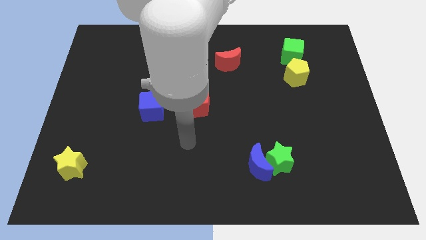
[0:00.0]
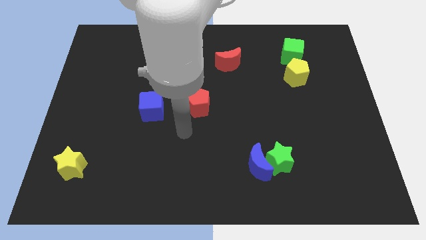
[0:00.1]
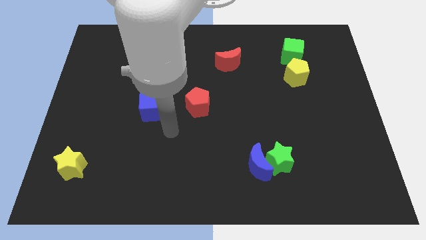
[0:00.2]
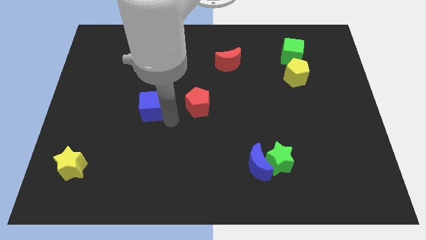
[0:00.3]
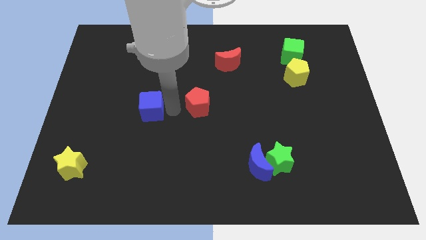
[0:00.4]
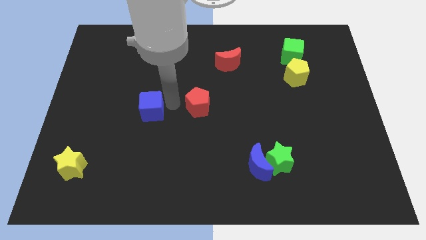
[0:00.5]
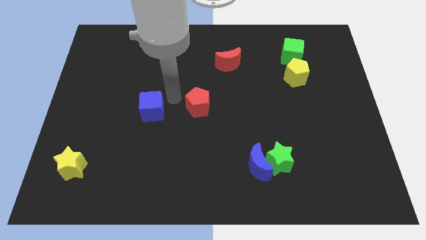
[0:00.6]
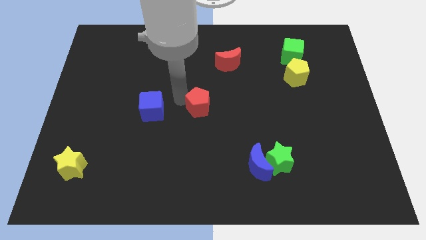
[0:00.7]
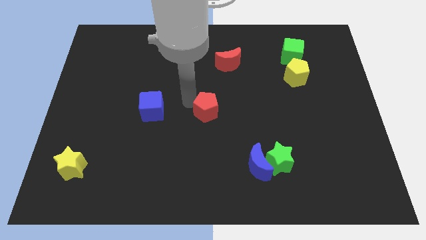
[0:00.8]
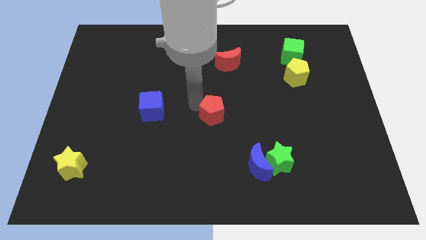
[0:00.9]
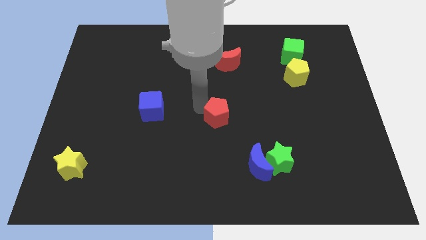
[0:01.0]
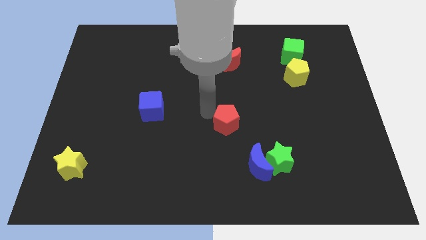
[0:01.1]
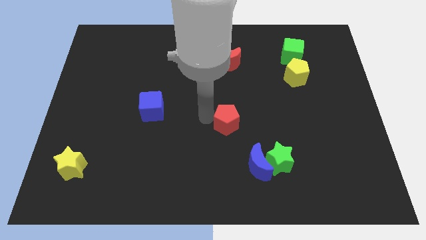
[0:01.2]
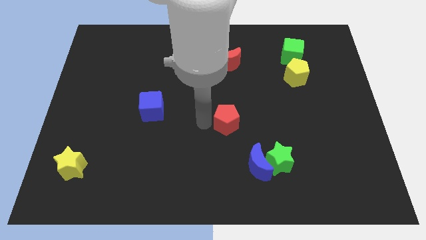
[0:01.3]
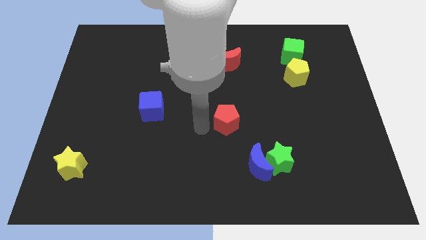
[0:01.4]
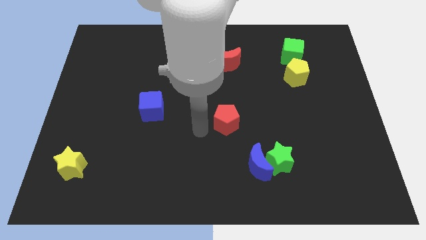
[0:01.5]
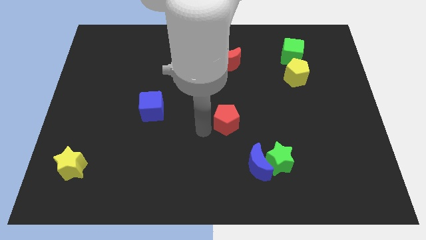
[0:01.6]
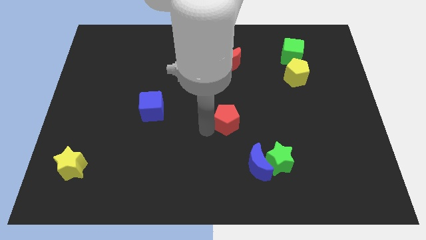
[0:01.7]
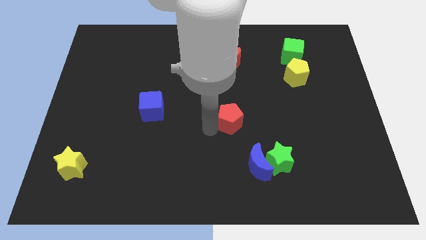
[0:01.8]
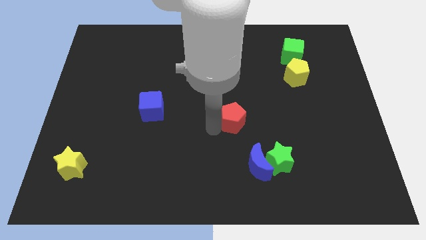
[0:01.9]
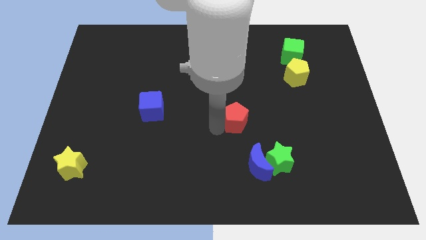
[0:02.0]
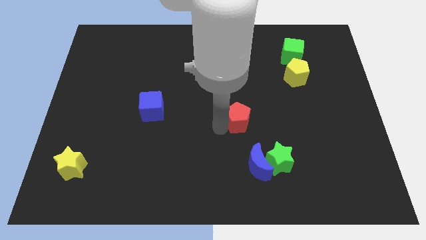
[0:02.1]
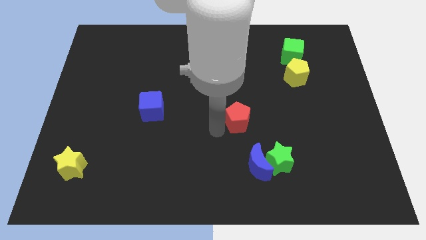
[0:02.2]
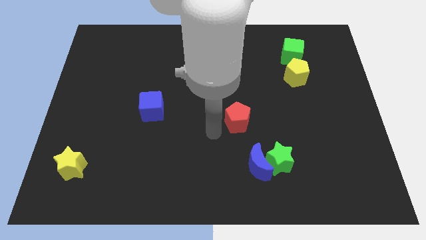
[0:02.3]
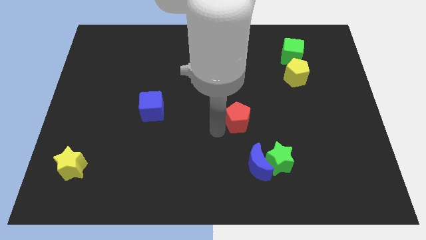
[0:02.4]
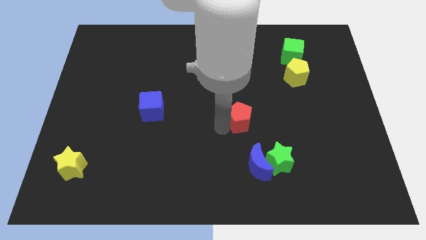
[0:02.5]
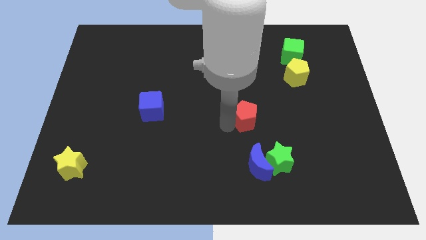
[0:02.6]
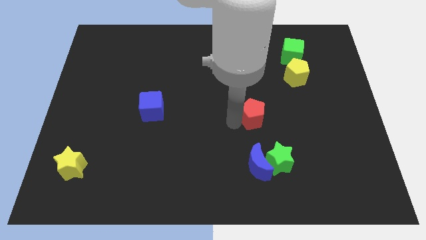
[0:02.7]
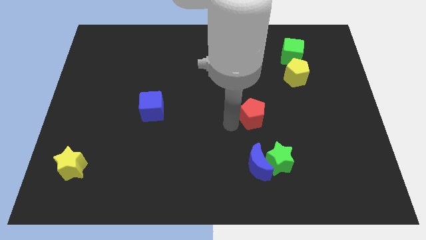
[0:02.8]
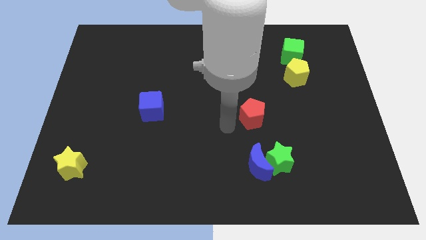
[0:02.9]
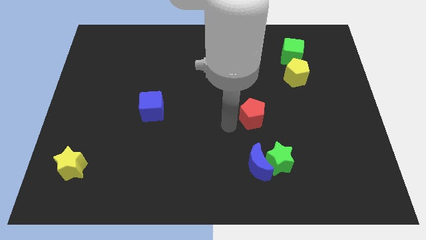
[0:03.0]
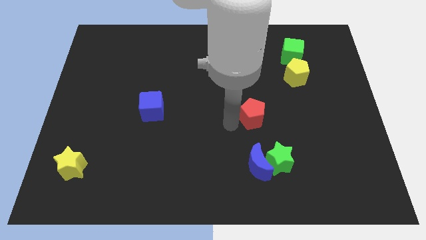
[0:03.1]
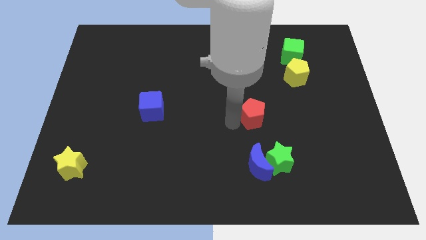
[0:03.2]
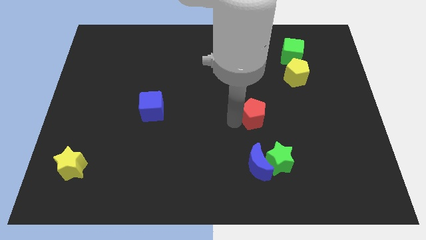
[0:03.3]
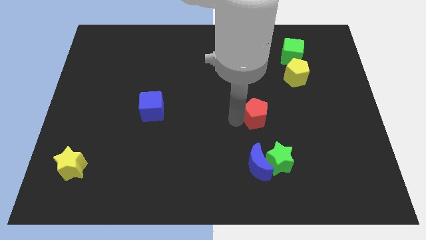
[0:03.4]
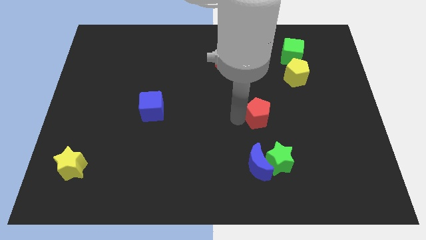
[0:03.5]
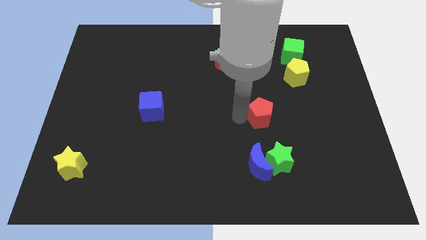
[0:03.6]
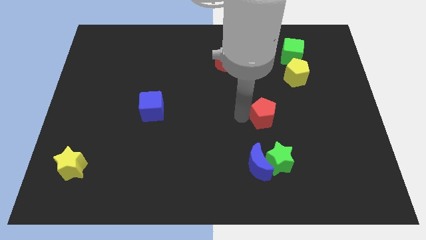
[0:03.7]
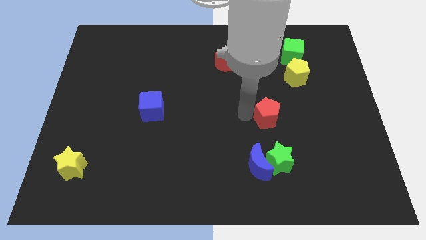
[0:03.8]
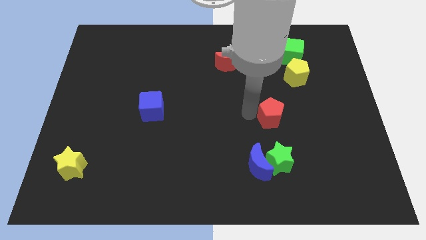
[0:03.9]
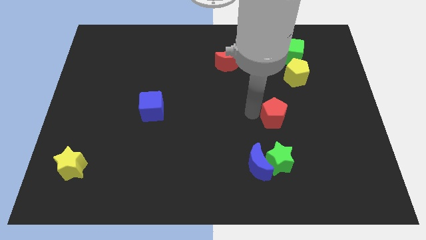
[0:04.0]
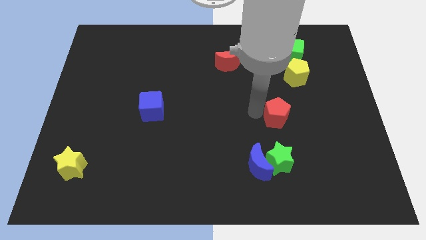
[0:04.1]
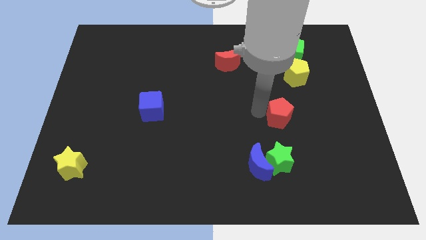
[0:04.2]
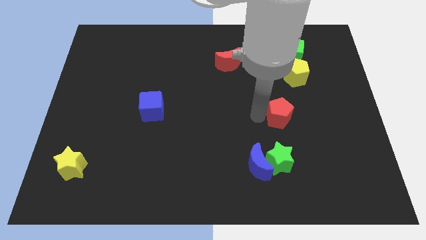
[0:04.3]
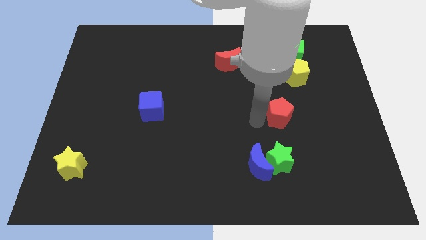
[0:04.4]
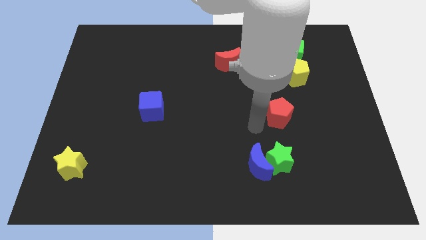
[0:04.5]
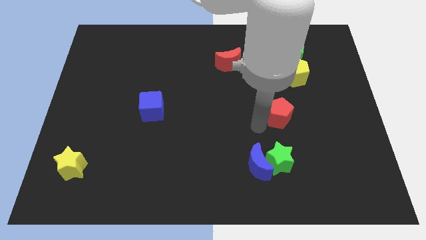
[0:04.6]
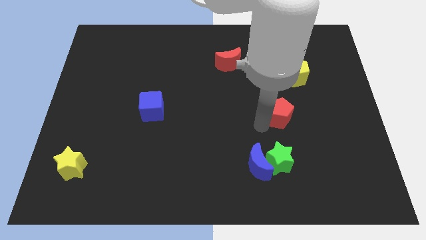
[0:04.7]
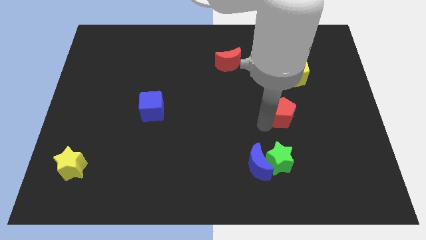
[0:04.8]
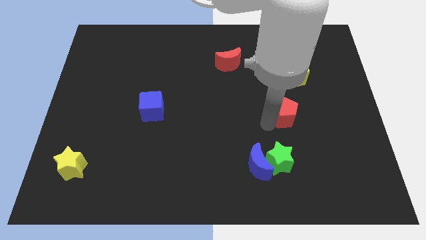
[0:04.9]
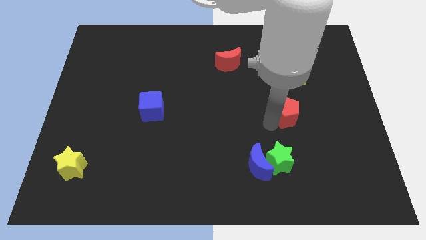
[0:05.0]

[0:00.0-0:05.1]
push the red pentagon to the right

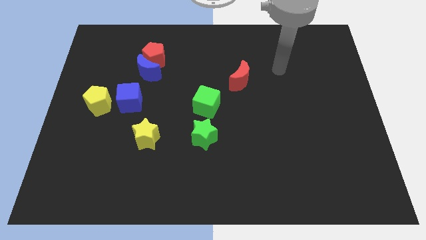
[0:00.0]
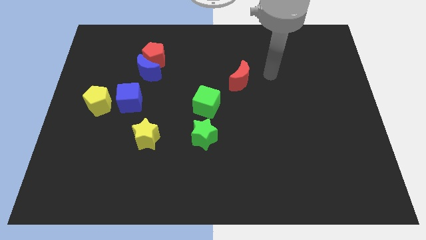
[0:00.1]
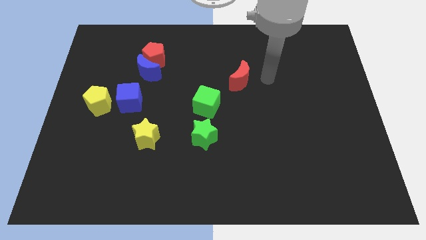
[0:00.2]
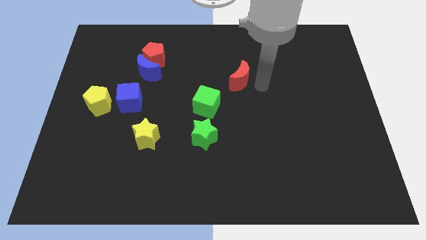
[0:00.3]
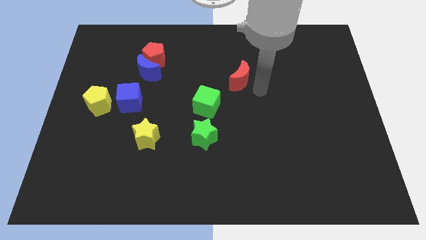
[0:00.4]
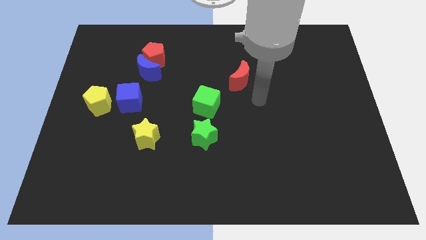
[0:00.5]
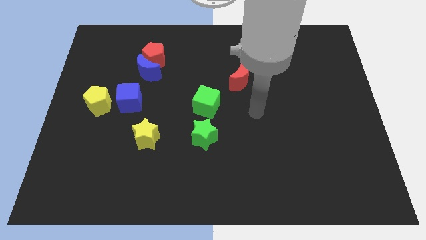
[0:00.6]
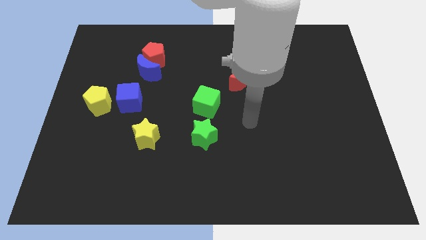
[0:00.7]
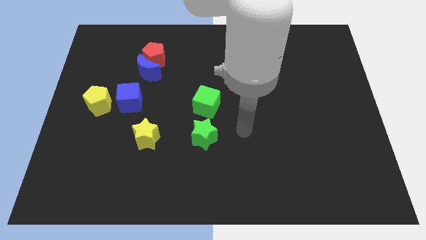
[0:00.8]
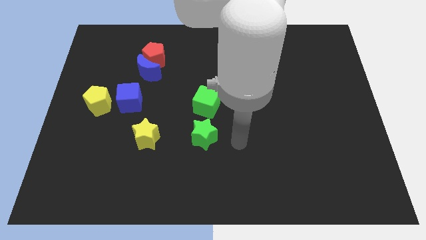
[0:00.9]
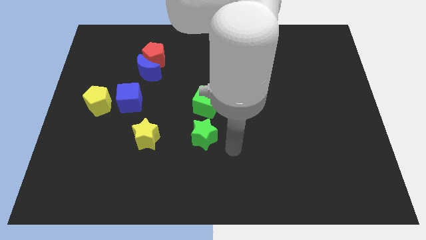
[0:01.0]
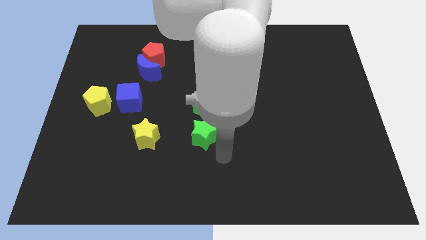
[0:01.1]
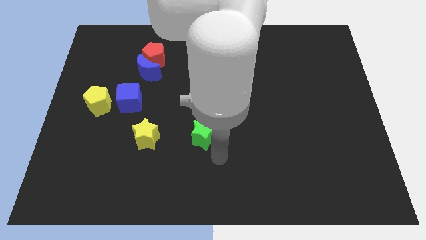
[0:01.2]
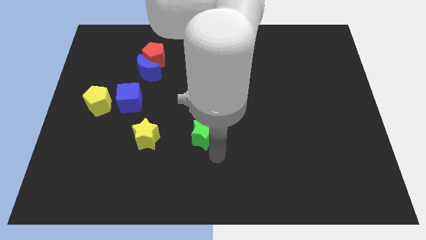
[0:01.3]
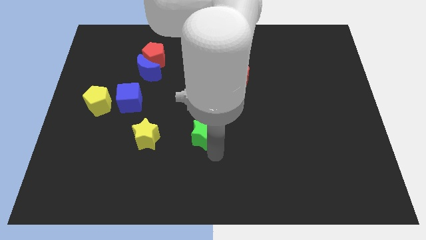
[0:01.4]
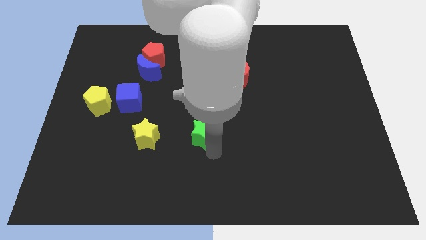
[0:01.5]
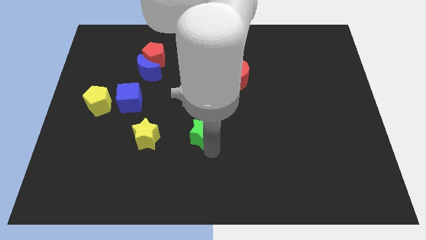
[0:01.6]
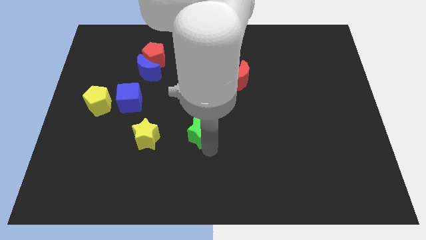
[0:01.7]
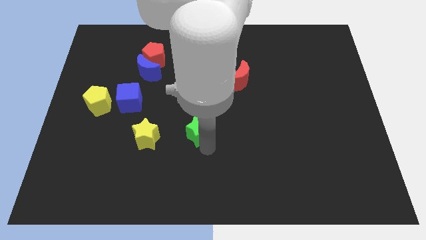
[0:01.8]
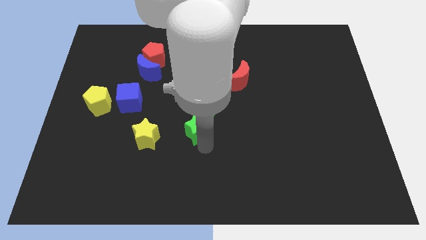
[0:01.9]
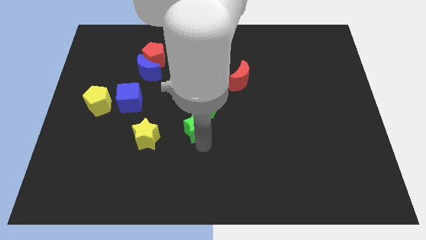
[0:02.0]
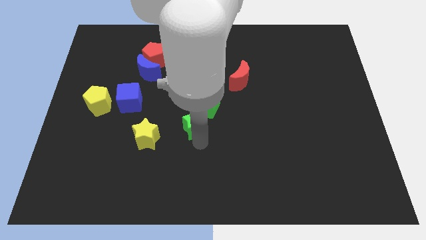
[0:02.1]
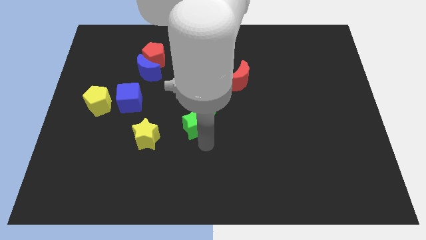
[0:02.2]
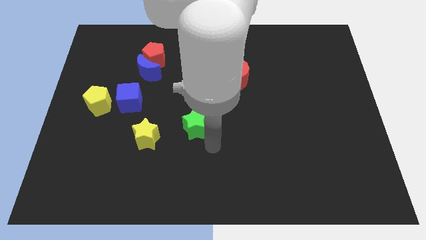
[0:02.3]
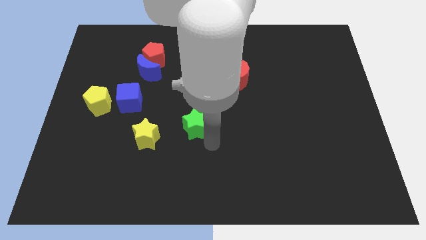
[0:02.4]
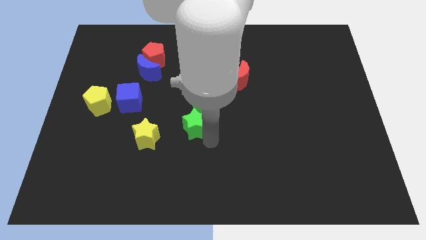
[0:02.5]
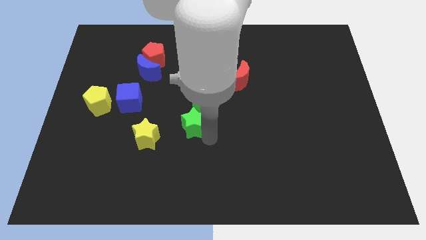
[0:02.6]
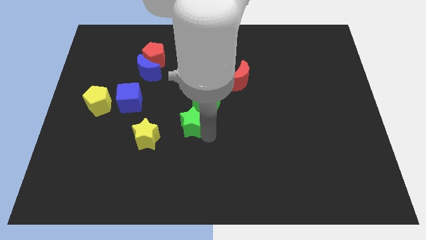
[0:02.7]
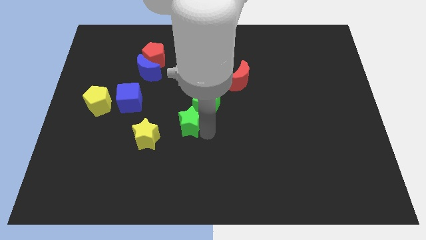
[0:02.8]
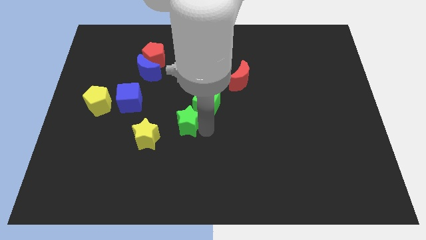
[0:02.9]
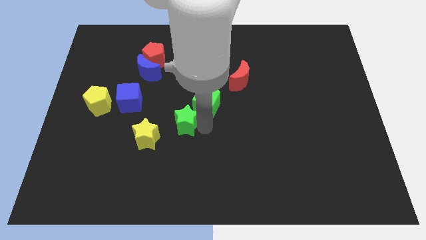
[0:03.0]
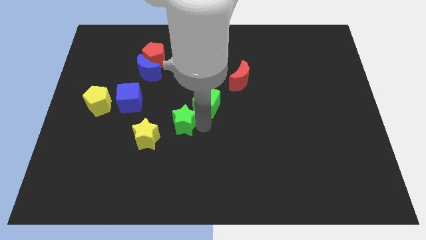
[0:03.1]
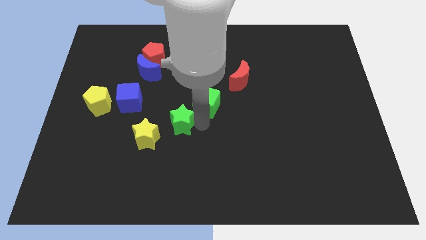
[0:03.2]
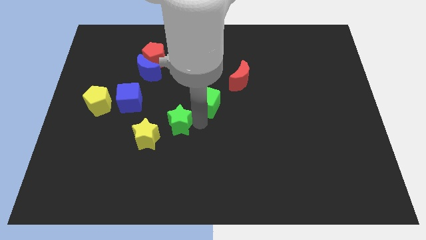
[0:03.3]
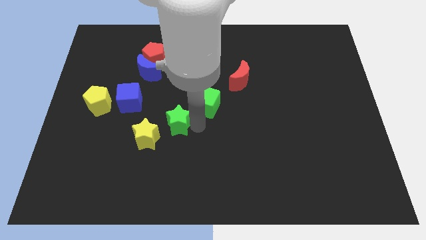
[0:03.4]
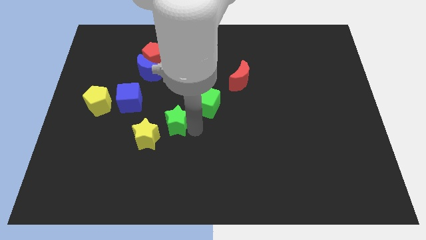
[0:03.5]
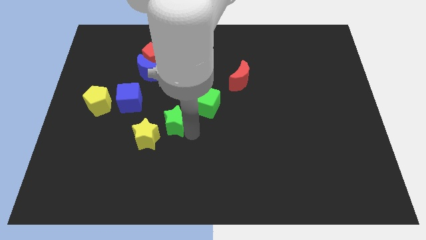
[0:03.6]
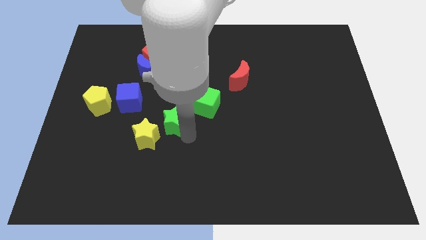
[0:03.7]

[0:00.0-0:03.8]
slightly push the green star up and to the left
